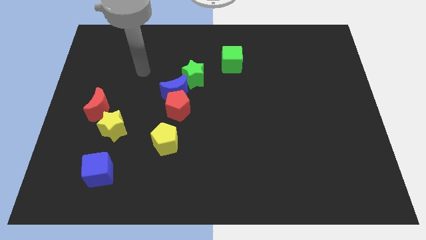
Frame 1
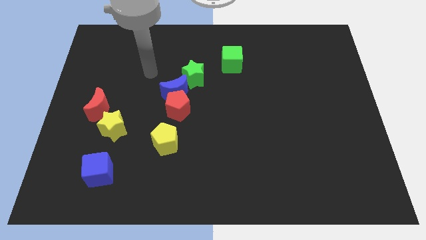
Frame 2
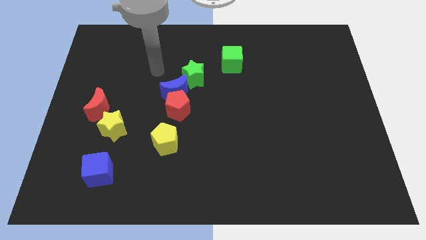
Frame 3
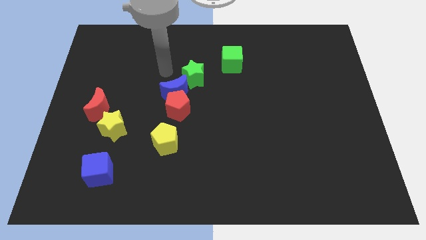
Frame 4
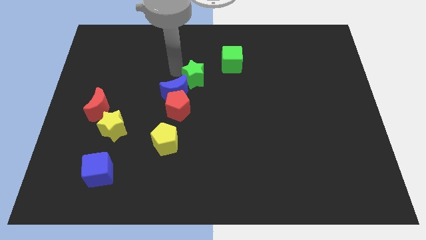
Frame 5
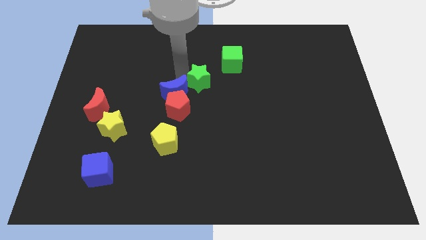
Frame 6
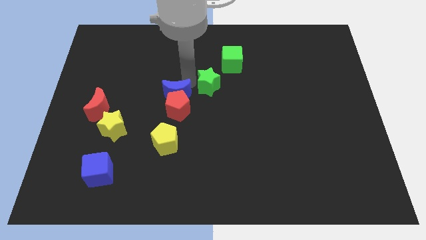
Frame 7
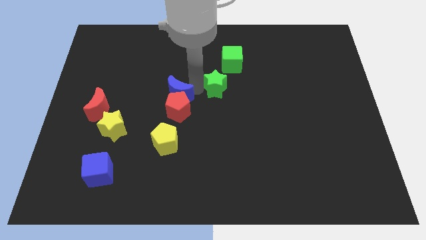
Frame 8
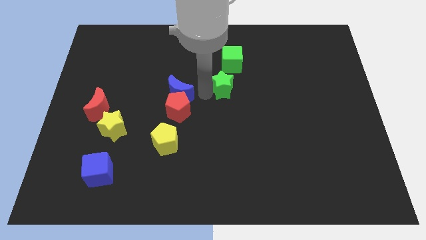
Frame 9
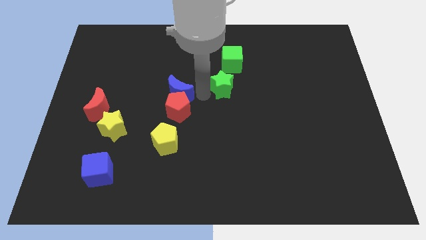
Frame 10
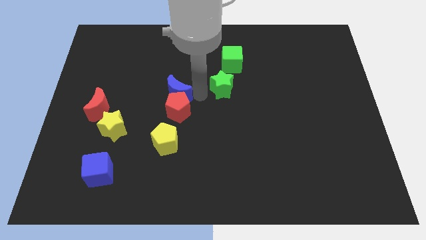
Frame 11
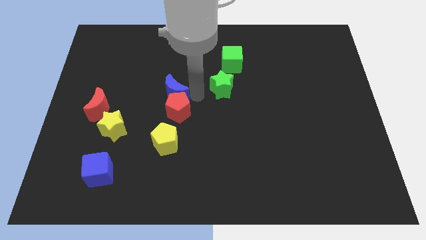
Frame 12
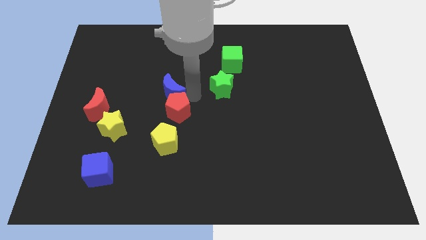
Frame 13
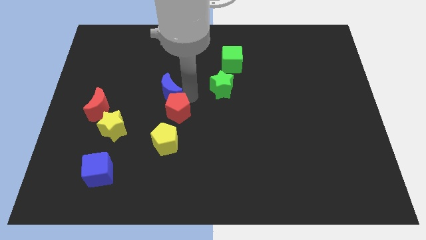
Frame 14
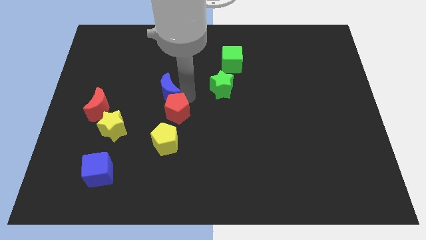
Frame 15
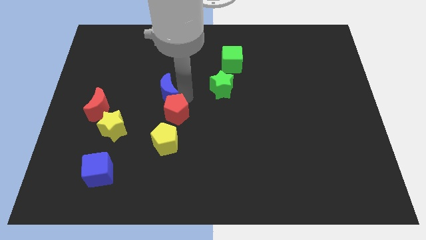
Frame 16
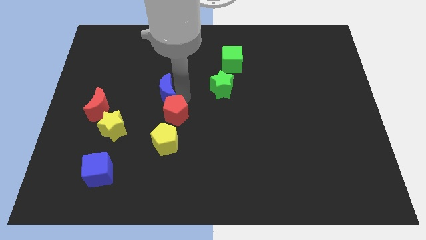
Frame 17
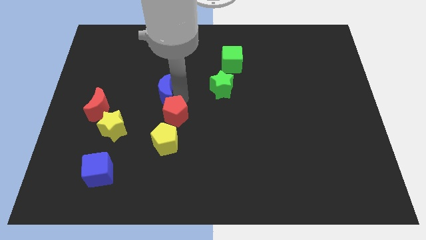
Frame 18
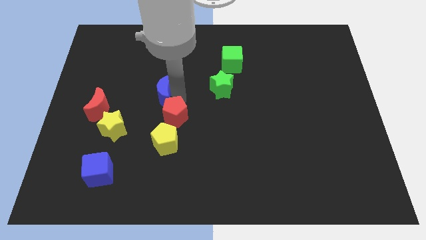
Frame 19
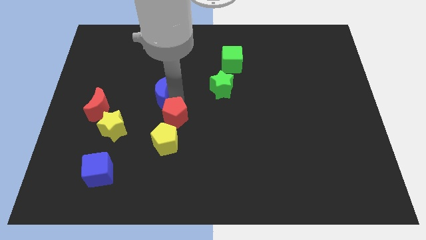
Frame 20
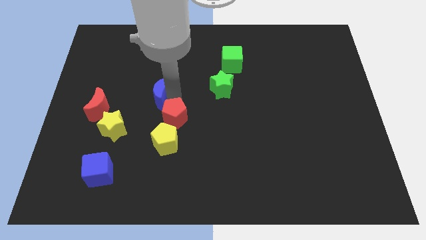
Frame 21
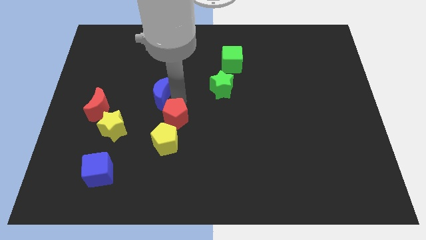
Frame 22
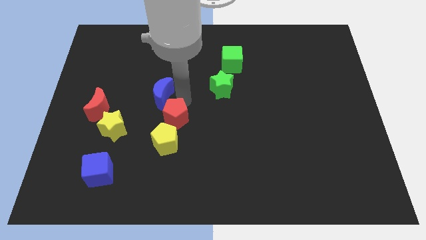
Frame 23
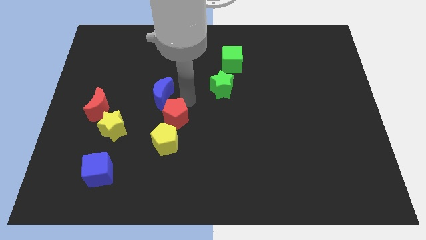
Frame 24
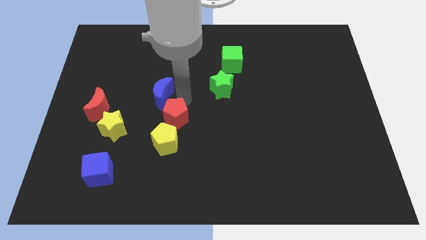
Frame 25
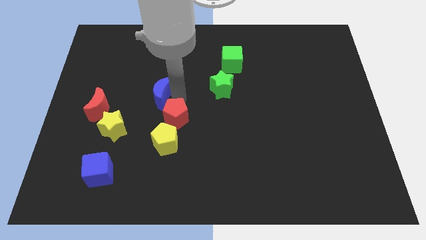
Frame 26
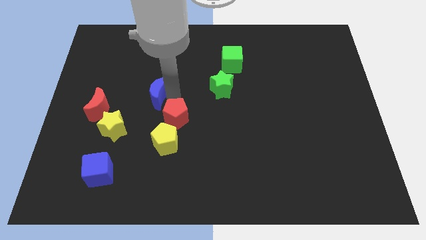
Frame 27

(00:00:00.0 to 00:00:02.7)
move the blue moon away from the red pentagon and green star

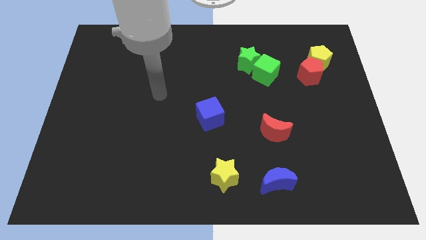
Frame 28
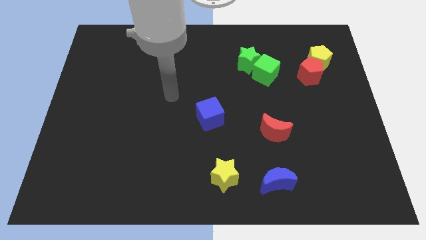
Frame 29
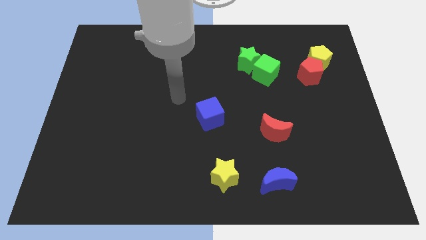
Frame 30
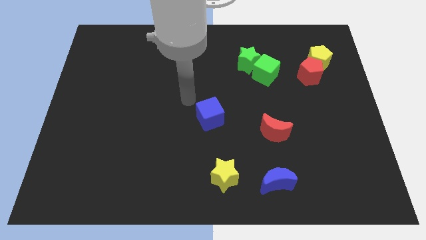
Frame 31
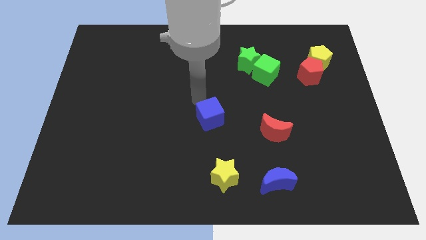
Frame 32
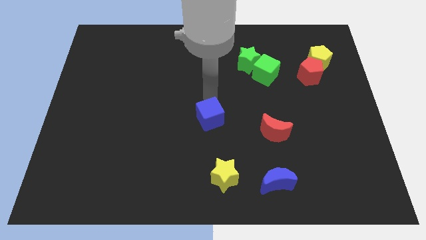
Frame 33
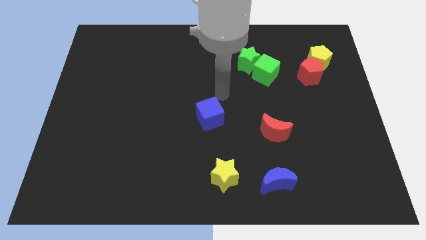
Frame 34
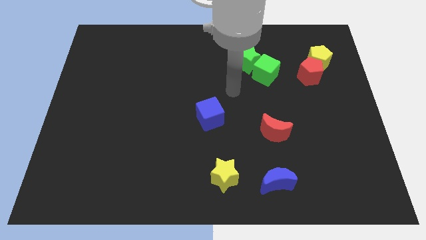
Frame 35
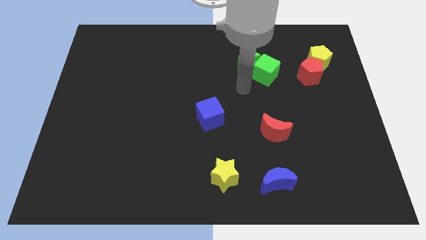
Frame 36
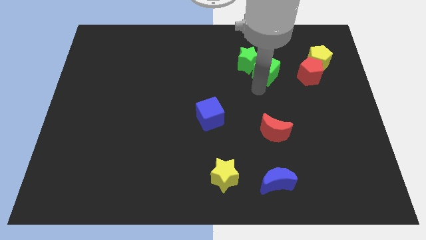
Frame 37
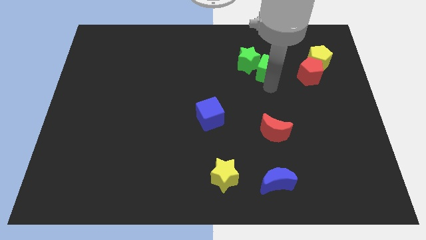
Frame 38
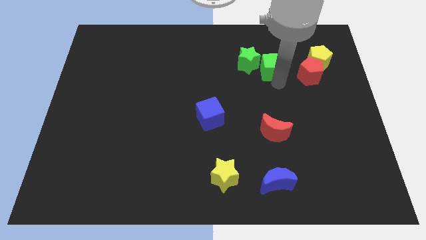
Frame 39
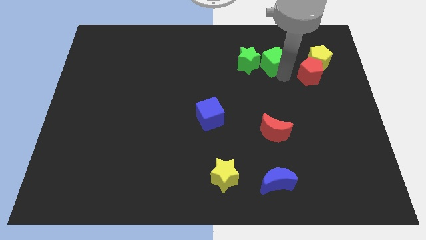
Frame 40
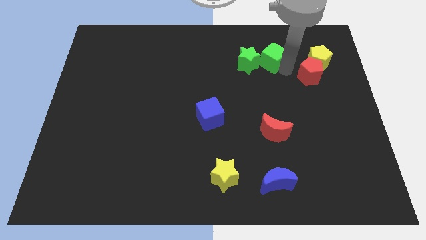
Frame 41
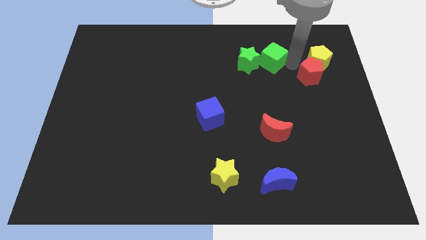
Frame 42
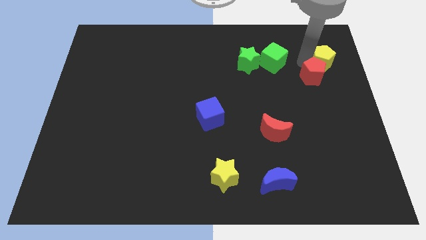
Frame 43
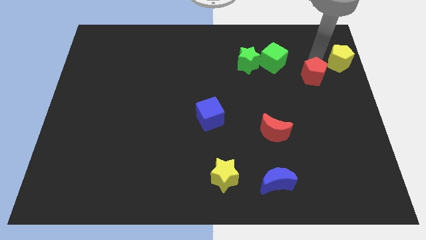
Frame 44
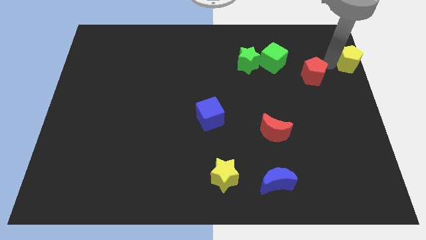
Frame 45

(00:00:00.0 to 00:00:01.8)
separate the red pentagon from the yellow pentagon

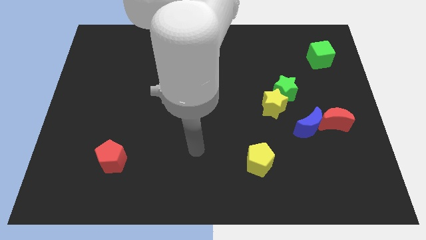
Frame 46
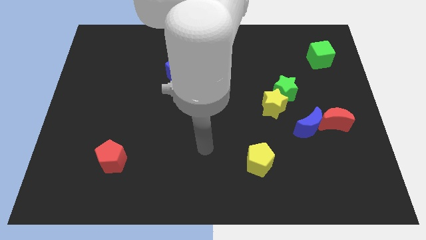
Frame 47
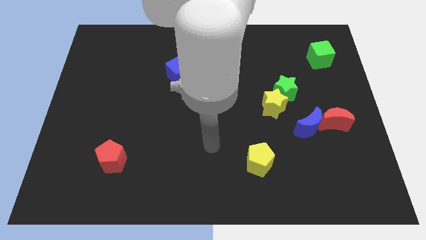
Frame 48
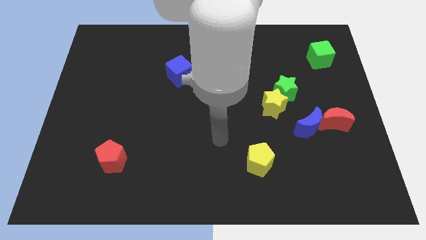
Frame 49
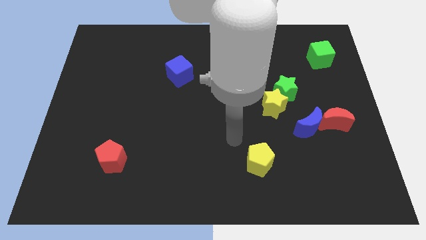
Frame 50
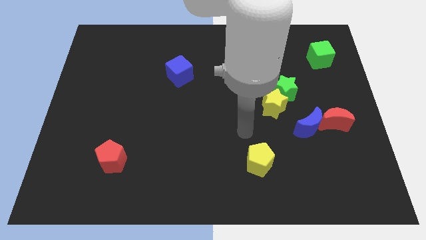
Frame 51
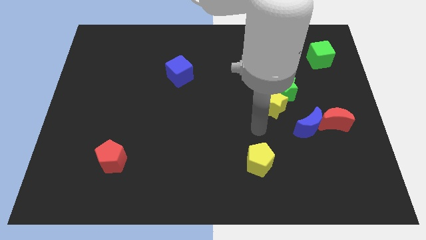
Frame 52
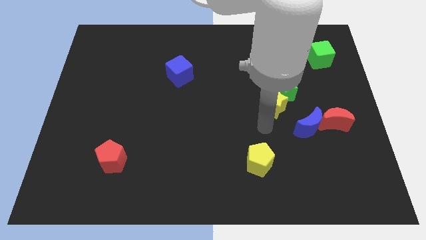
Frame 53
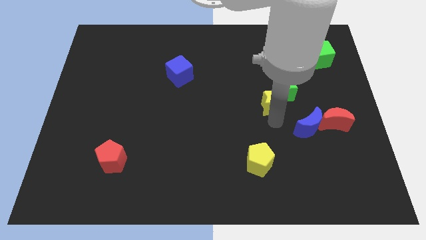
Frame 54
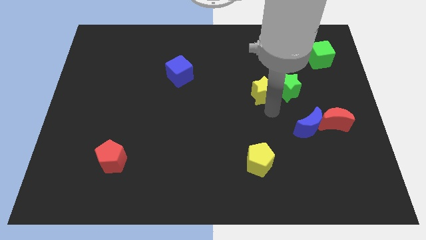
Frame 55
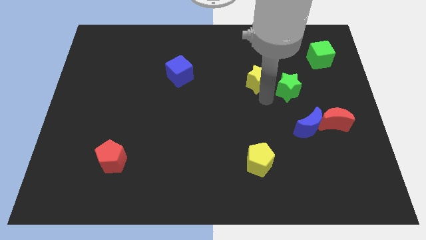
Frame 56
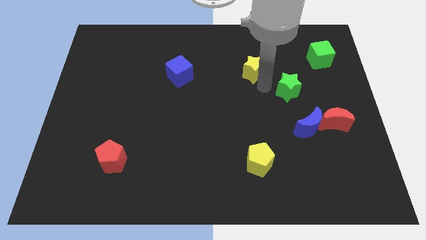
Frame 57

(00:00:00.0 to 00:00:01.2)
move the green star away from the yellow star

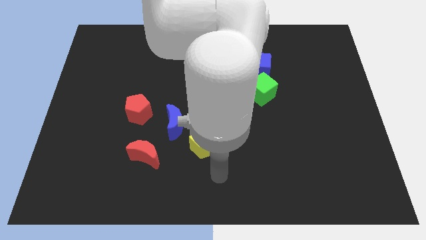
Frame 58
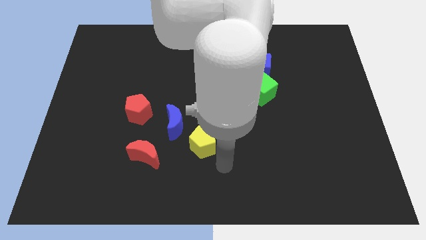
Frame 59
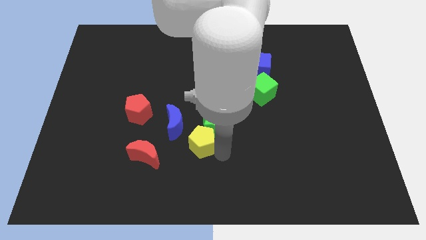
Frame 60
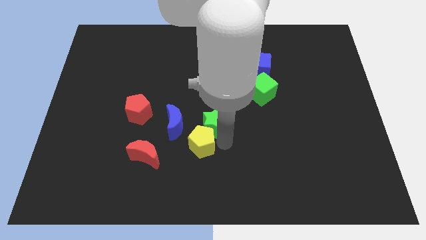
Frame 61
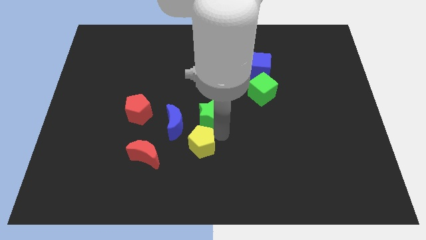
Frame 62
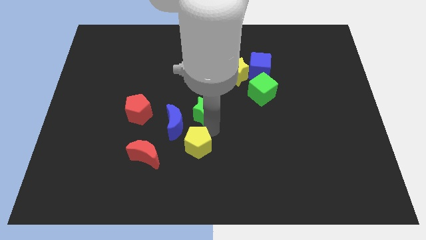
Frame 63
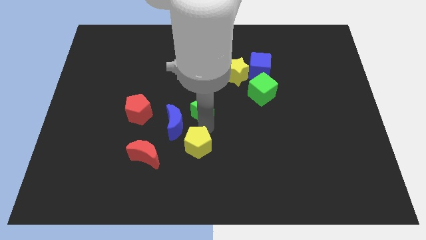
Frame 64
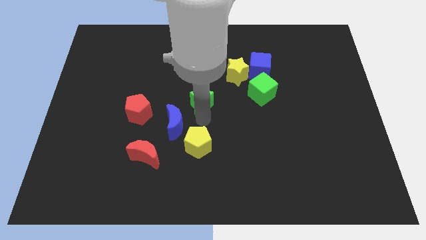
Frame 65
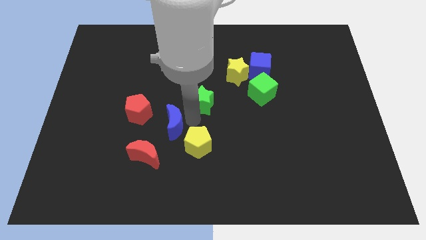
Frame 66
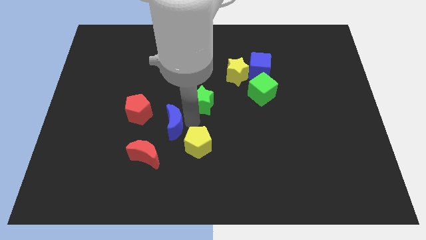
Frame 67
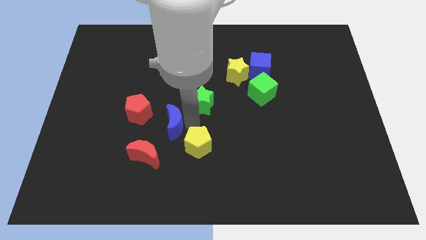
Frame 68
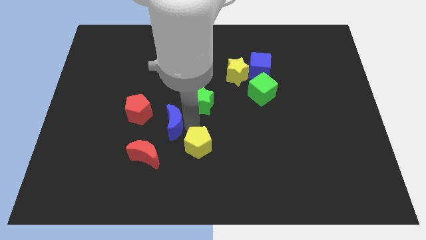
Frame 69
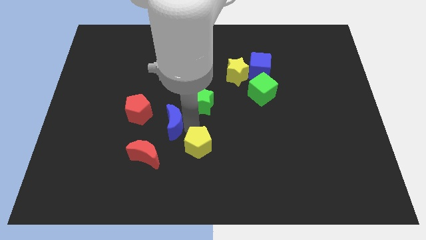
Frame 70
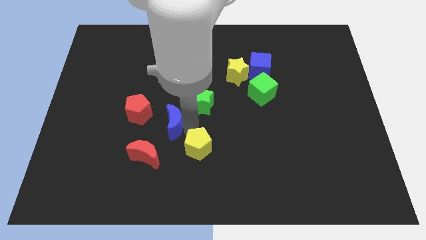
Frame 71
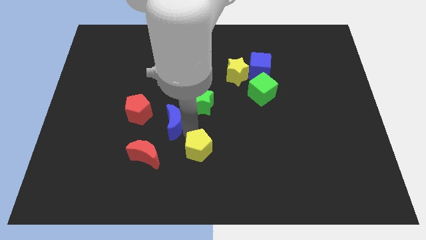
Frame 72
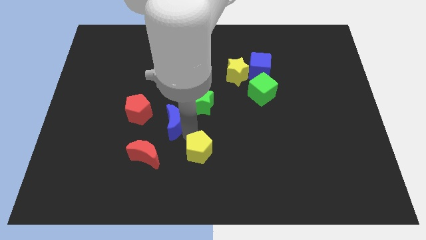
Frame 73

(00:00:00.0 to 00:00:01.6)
move the yellow pentagon away from the green star and blue moon

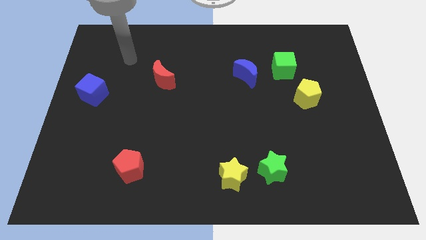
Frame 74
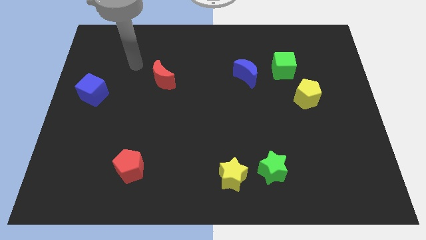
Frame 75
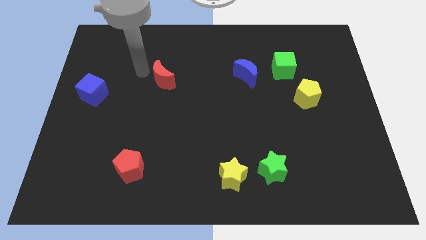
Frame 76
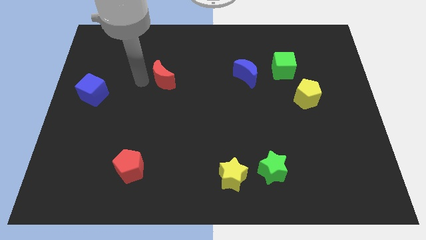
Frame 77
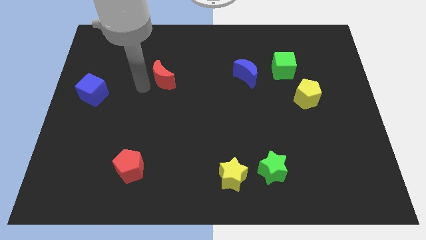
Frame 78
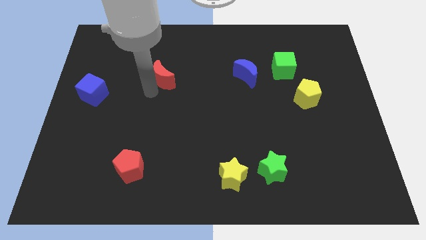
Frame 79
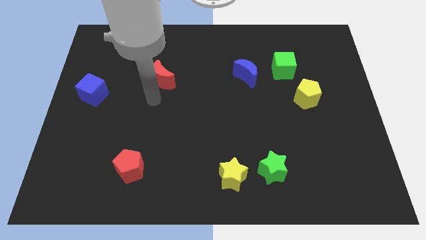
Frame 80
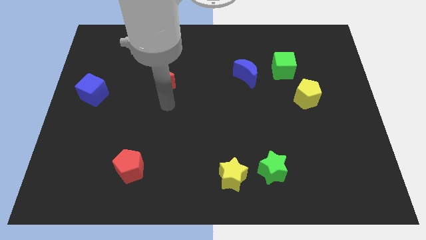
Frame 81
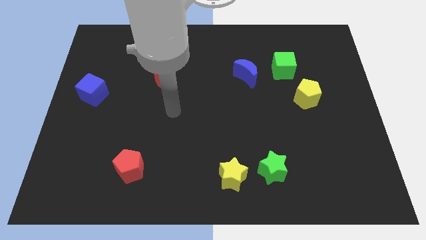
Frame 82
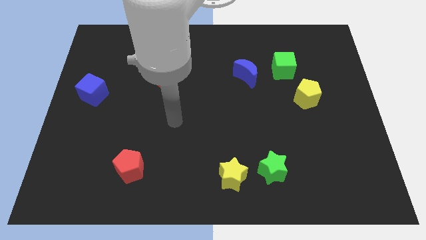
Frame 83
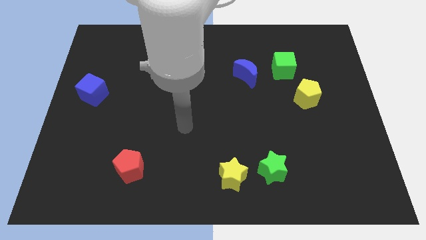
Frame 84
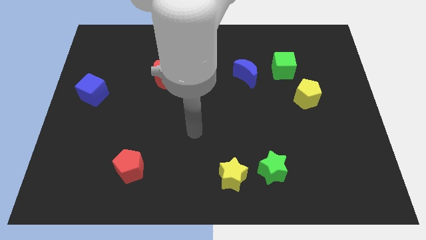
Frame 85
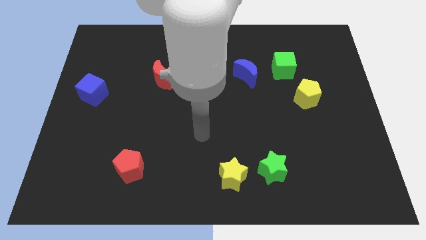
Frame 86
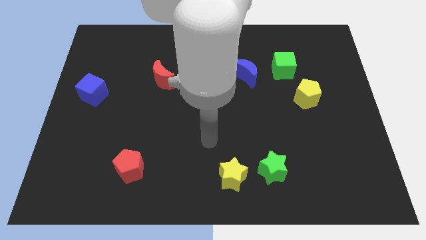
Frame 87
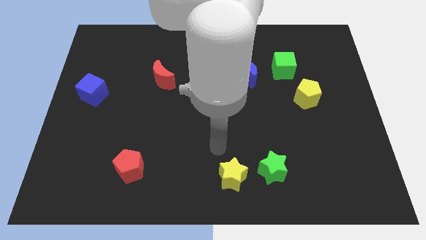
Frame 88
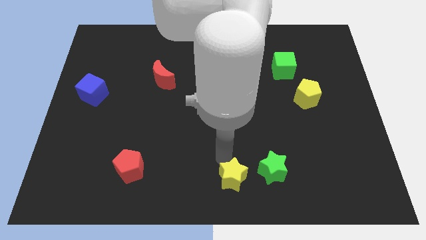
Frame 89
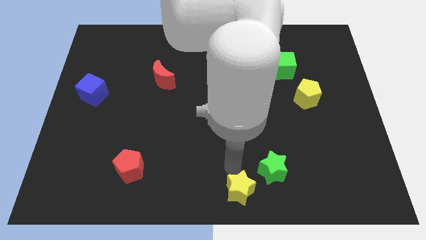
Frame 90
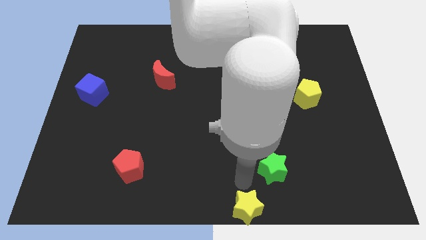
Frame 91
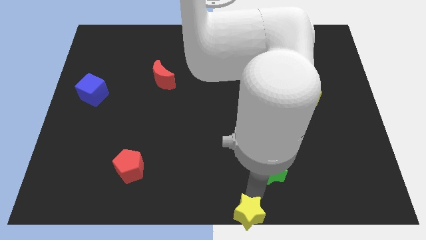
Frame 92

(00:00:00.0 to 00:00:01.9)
pull the green star apart from the yellow star
